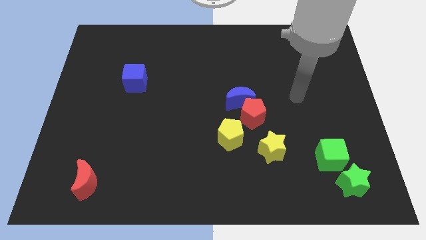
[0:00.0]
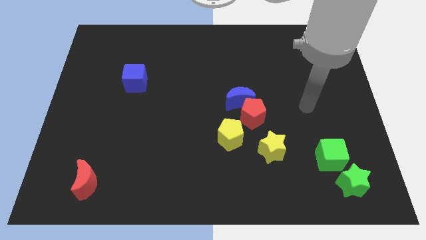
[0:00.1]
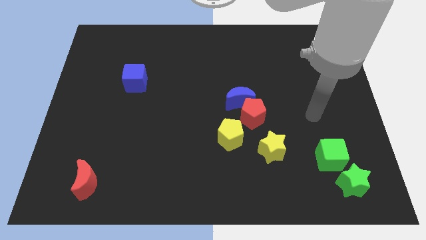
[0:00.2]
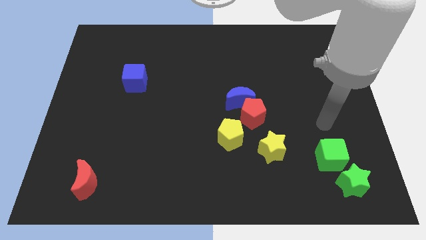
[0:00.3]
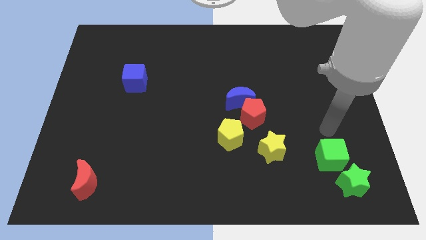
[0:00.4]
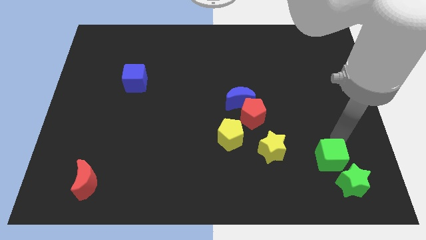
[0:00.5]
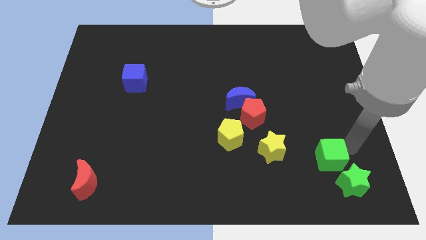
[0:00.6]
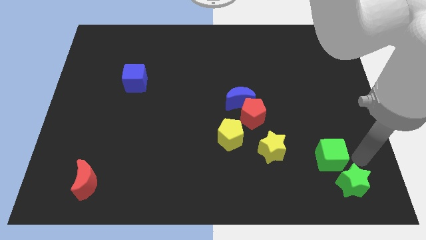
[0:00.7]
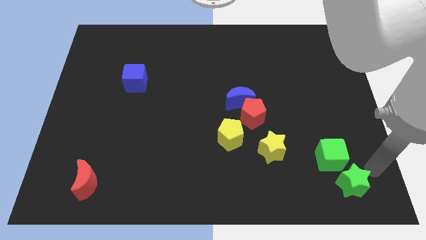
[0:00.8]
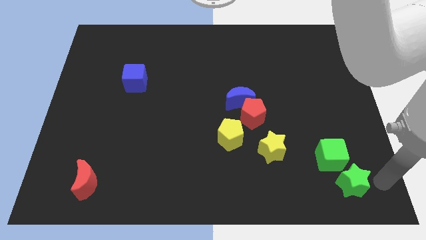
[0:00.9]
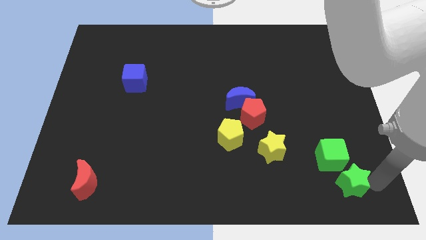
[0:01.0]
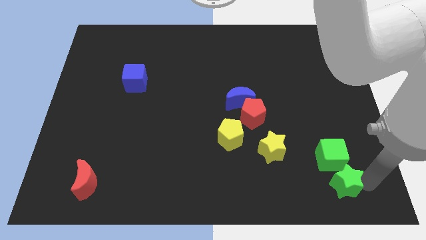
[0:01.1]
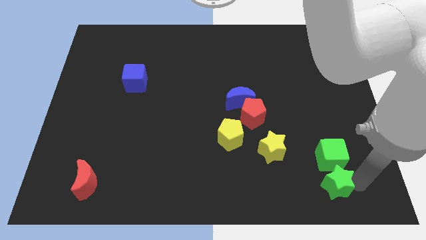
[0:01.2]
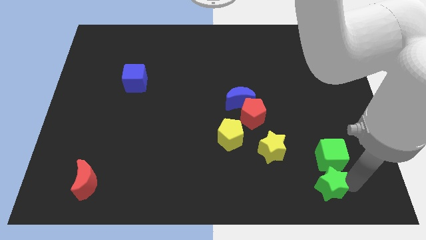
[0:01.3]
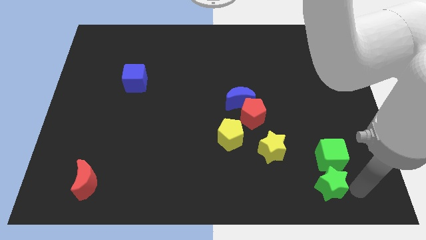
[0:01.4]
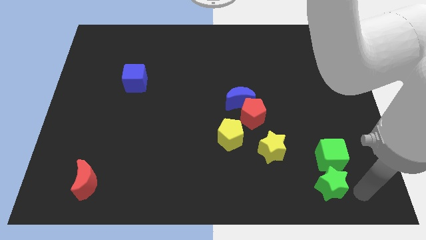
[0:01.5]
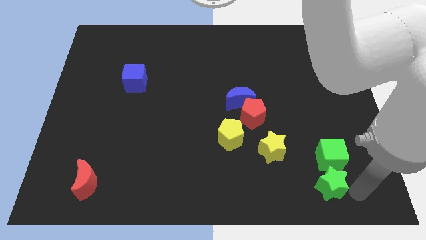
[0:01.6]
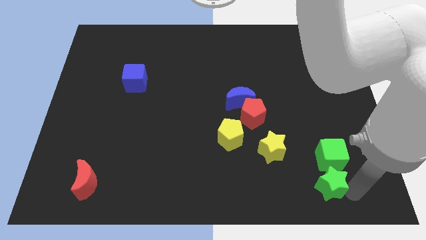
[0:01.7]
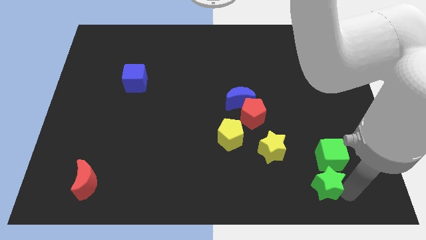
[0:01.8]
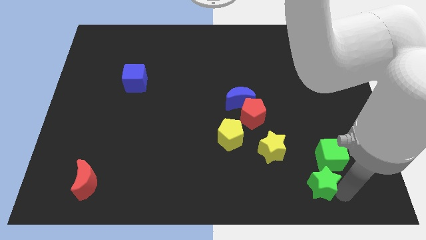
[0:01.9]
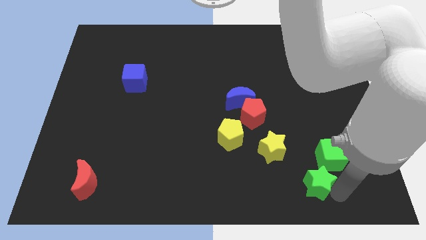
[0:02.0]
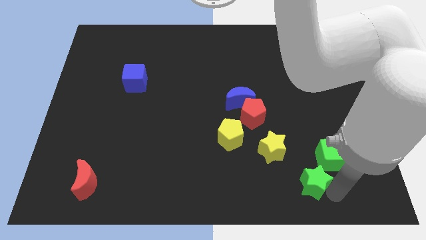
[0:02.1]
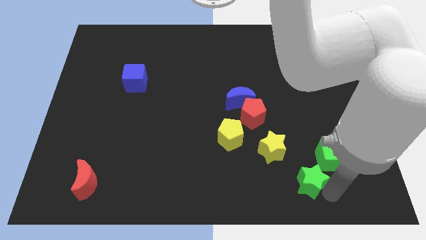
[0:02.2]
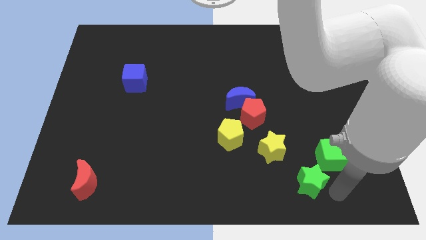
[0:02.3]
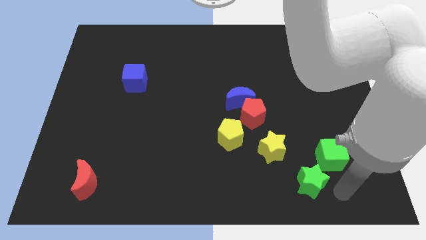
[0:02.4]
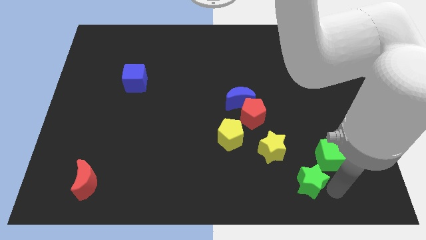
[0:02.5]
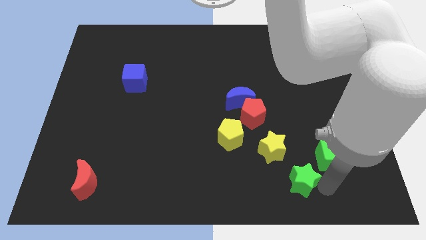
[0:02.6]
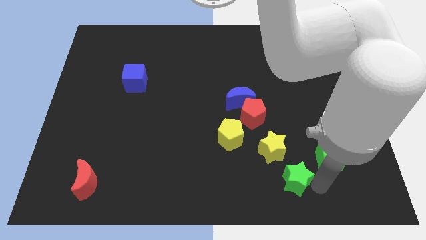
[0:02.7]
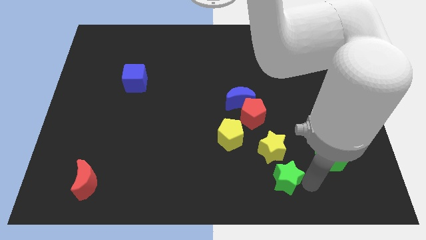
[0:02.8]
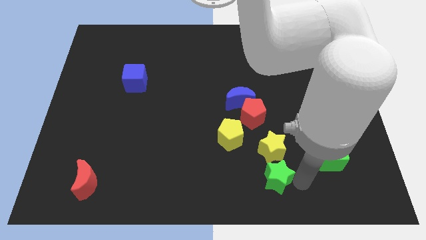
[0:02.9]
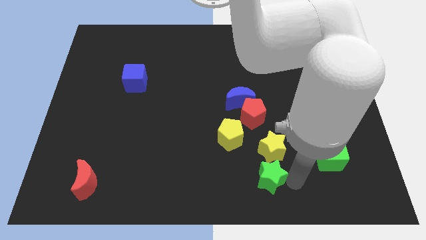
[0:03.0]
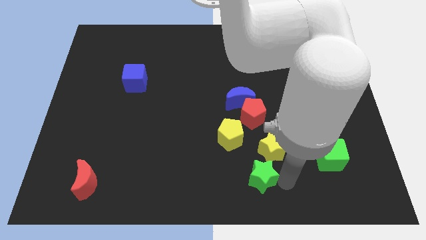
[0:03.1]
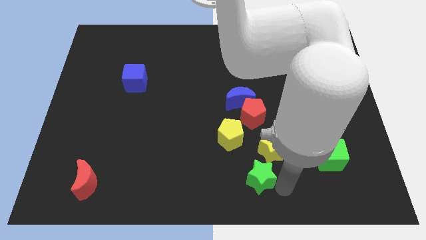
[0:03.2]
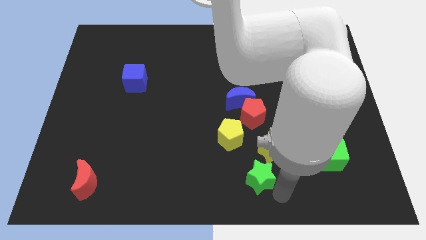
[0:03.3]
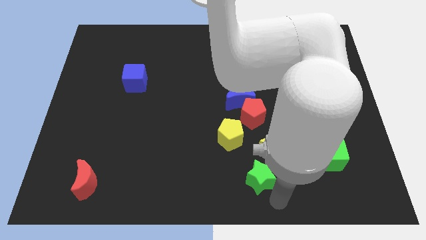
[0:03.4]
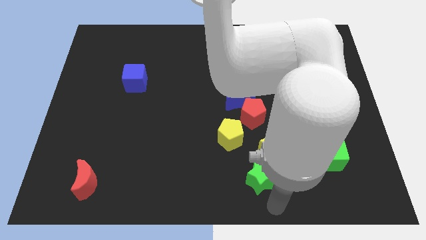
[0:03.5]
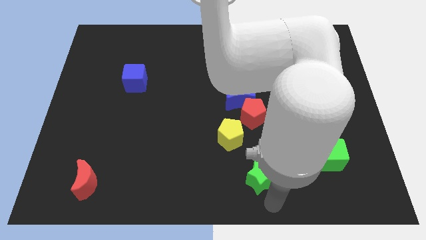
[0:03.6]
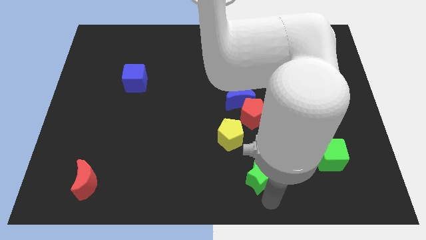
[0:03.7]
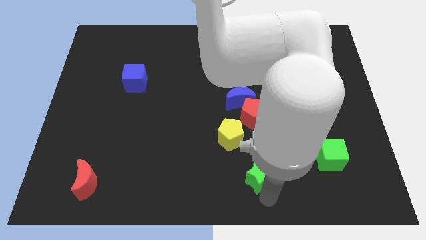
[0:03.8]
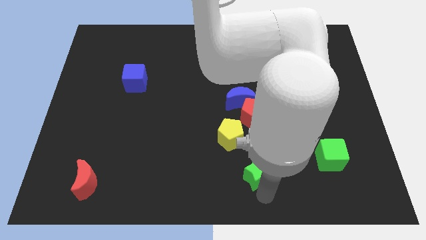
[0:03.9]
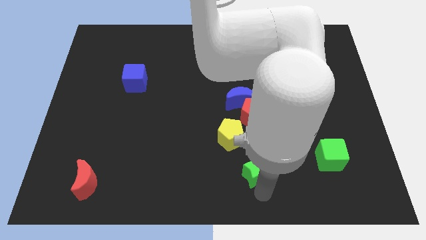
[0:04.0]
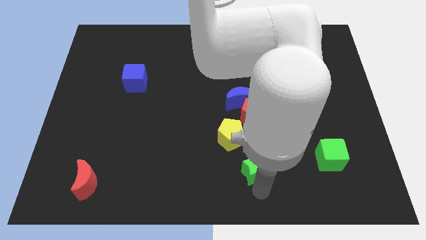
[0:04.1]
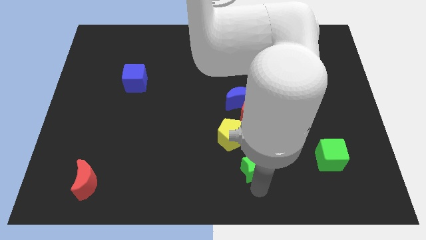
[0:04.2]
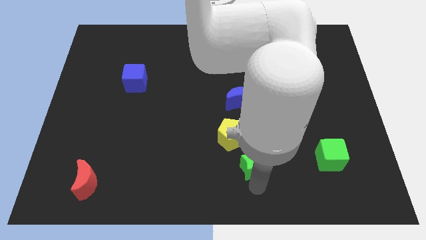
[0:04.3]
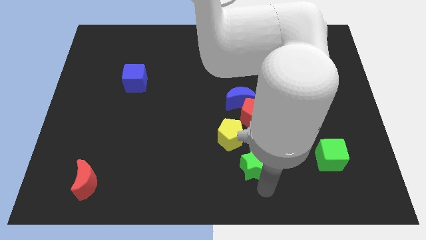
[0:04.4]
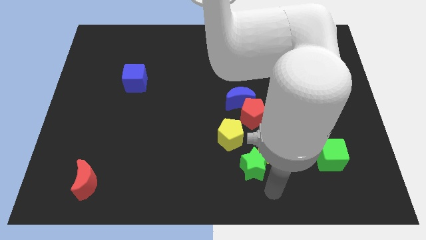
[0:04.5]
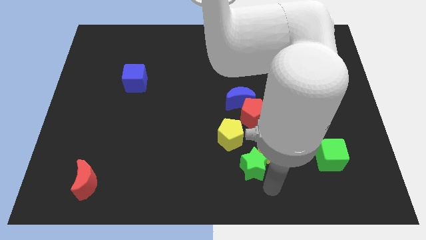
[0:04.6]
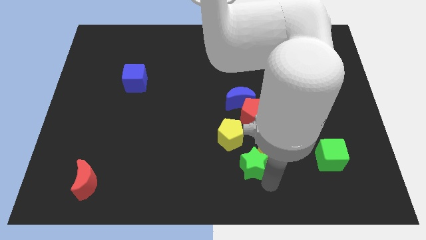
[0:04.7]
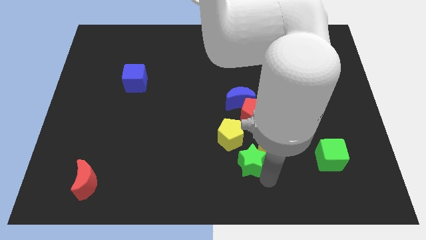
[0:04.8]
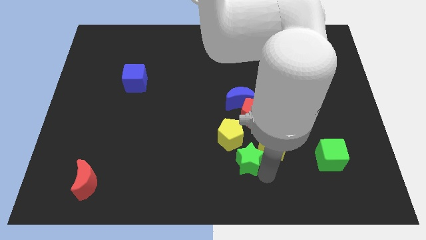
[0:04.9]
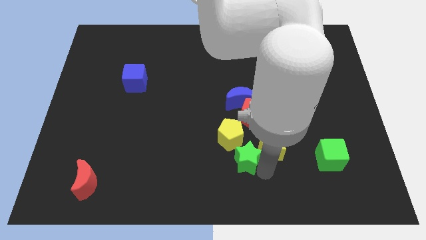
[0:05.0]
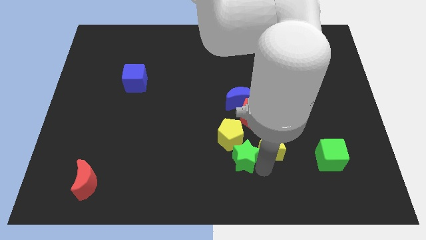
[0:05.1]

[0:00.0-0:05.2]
slide the green star towards the yellow pentagon

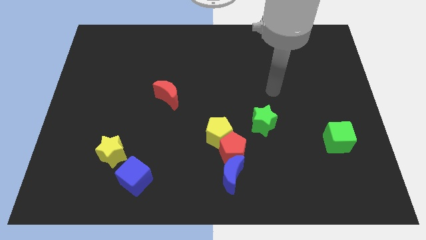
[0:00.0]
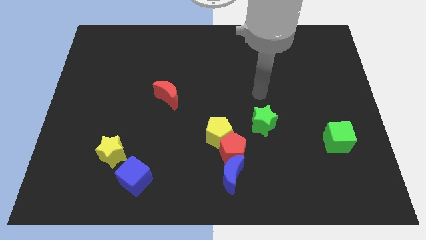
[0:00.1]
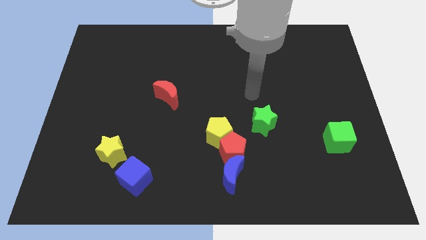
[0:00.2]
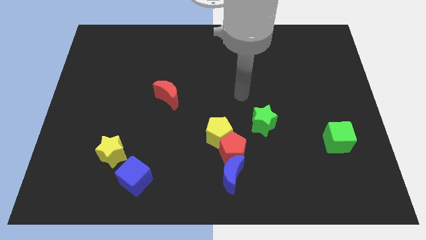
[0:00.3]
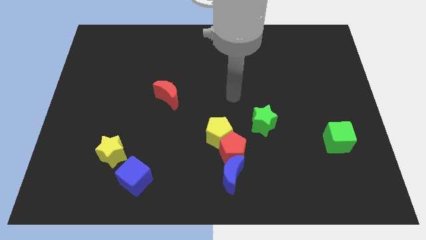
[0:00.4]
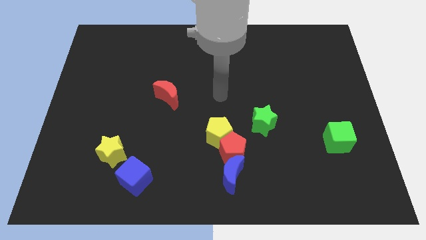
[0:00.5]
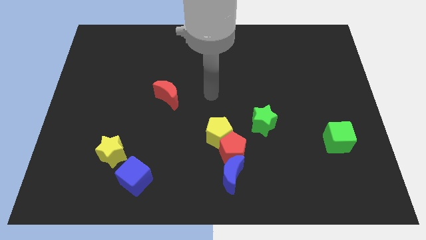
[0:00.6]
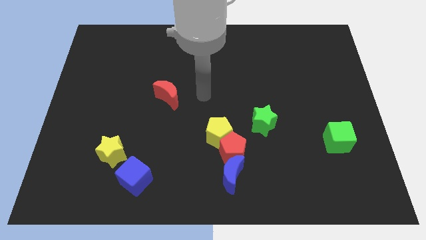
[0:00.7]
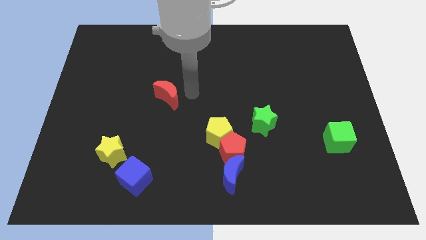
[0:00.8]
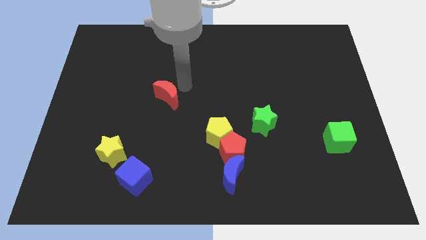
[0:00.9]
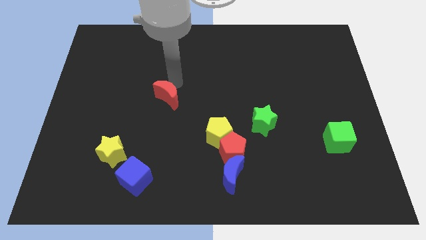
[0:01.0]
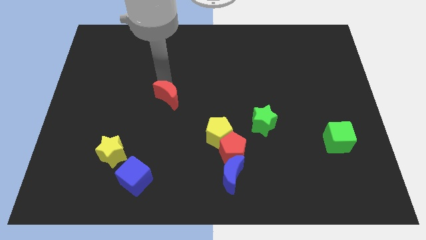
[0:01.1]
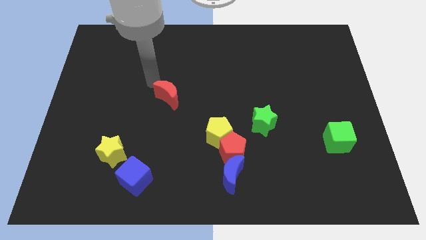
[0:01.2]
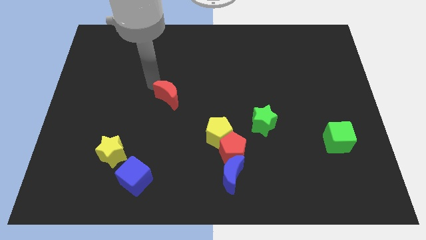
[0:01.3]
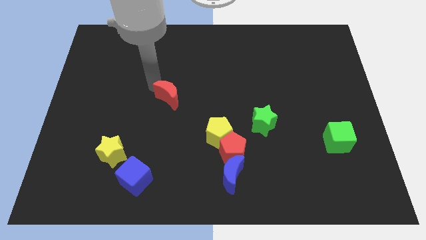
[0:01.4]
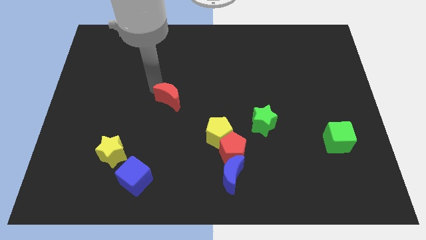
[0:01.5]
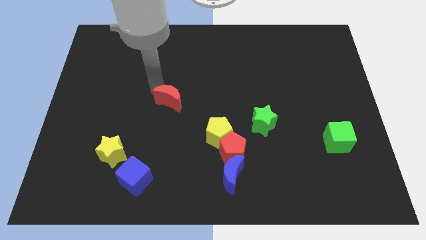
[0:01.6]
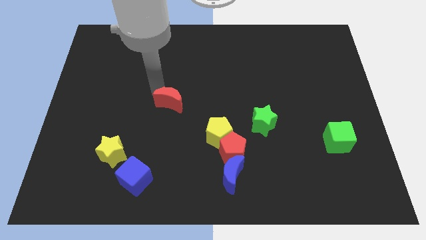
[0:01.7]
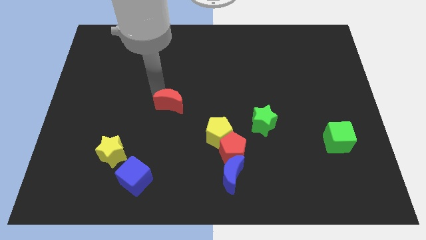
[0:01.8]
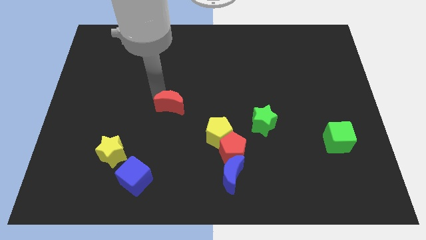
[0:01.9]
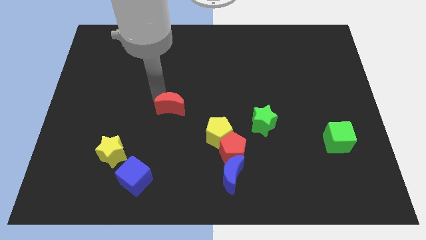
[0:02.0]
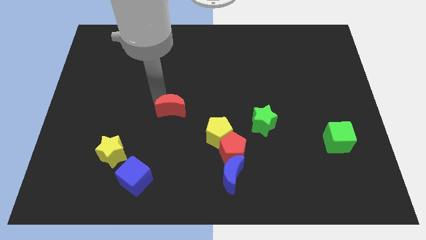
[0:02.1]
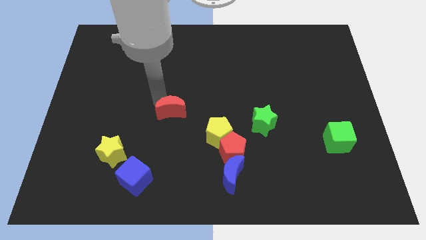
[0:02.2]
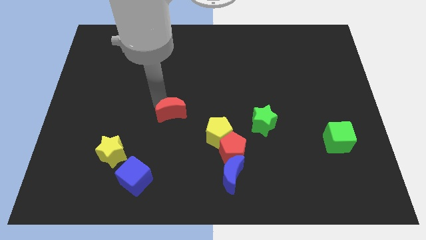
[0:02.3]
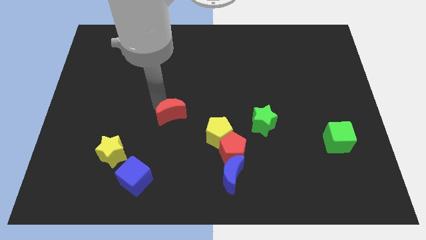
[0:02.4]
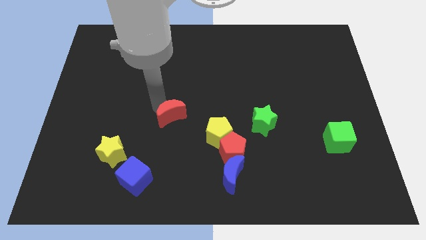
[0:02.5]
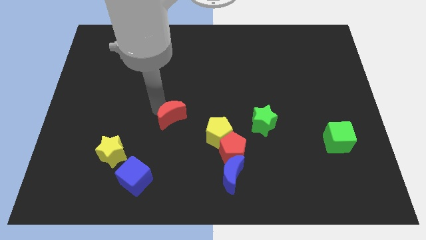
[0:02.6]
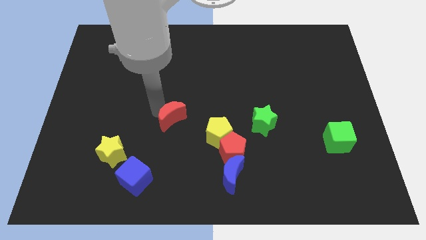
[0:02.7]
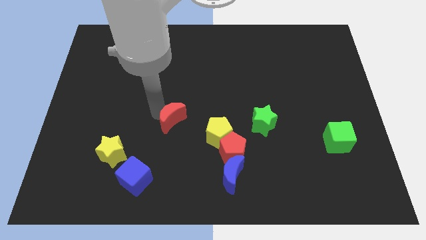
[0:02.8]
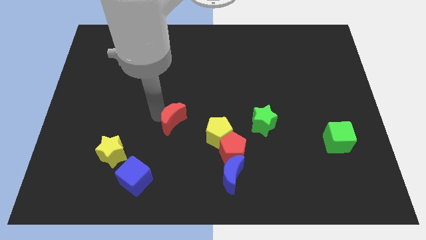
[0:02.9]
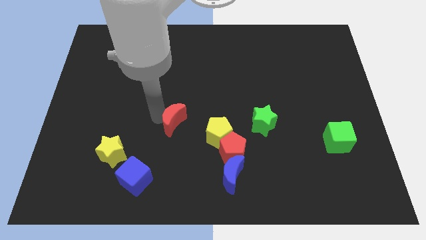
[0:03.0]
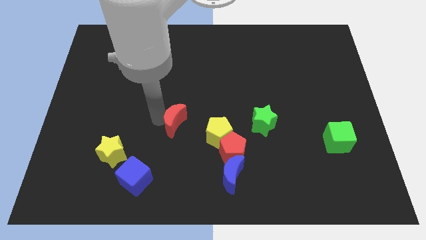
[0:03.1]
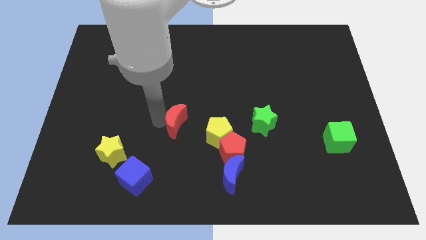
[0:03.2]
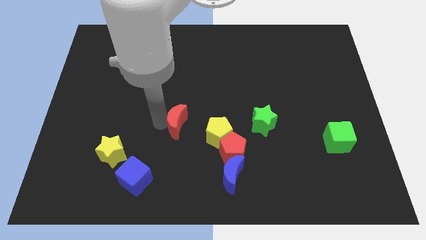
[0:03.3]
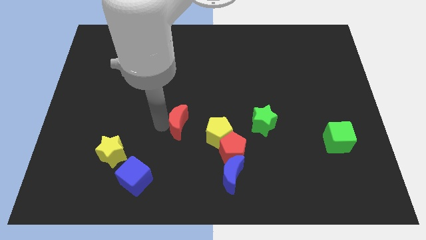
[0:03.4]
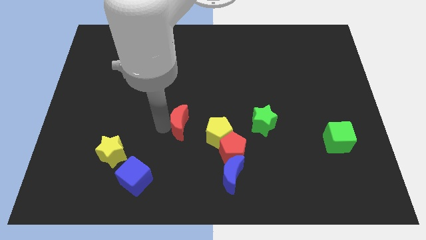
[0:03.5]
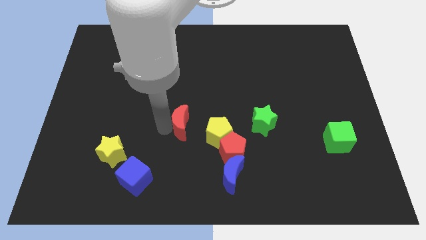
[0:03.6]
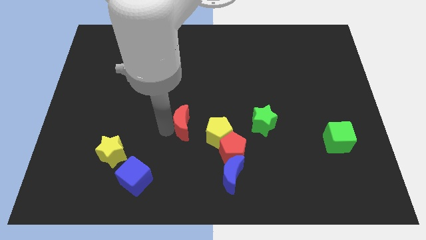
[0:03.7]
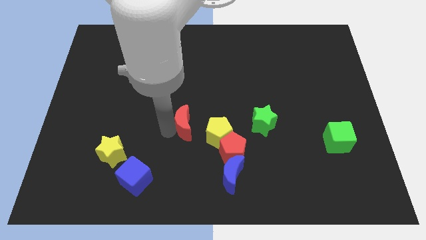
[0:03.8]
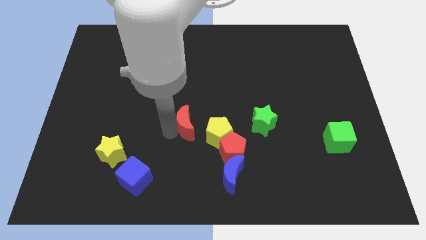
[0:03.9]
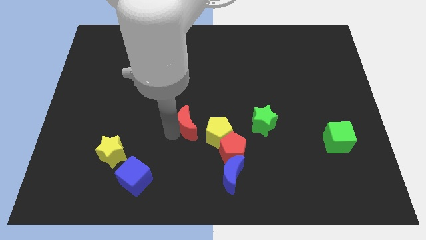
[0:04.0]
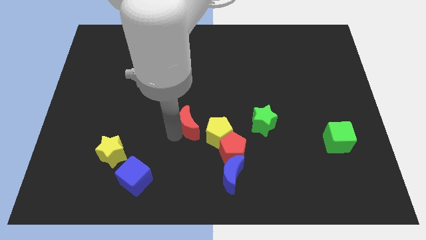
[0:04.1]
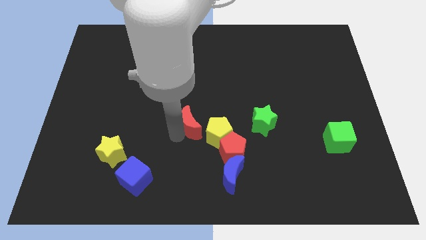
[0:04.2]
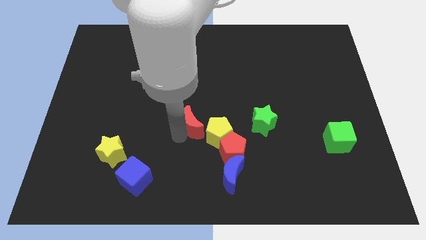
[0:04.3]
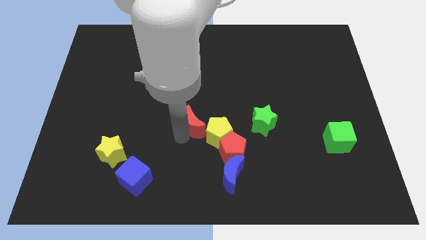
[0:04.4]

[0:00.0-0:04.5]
slide the red moon close to the yellow pentagon
